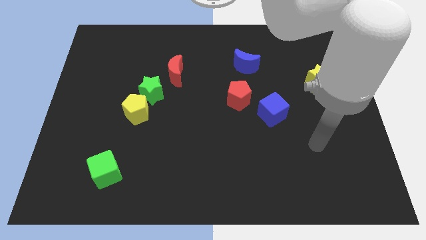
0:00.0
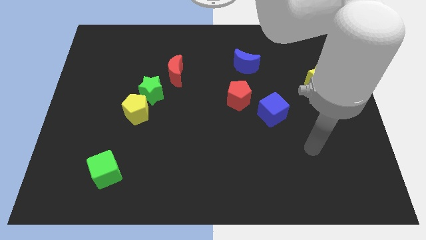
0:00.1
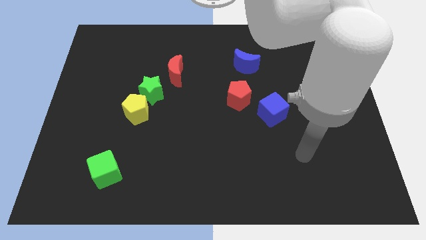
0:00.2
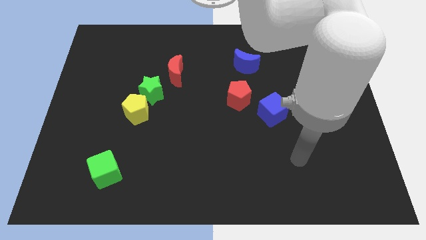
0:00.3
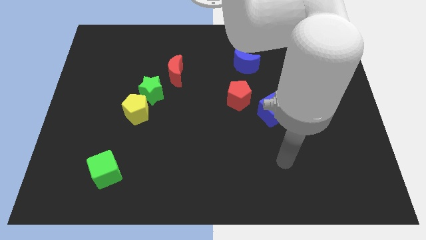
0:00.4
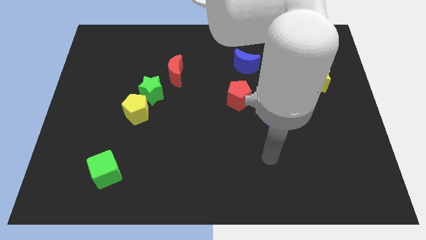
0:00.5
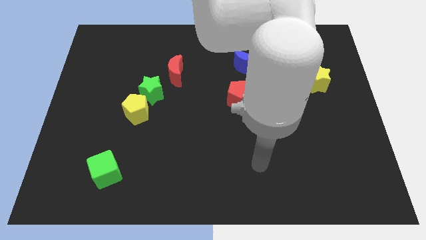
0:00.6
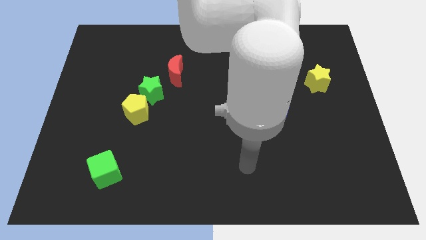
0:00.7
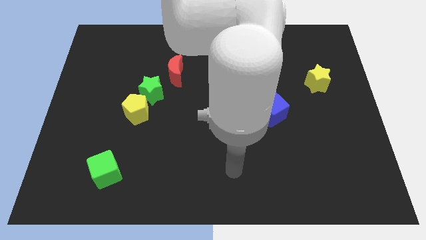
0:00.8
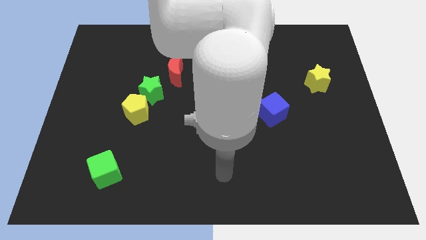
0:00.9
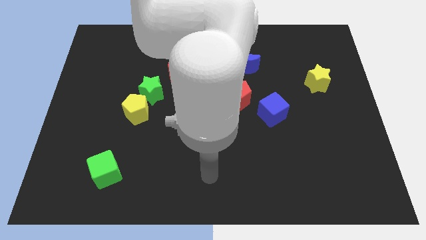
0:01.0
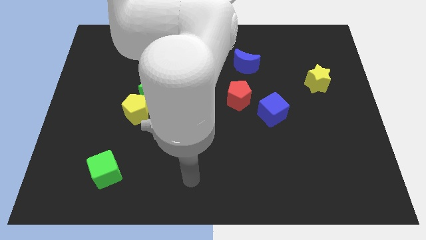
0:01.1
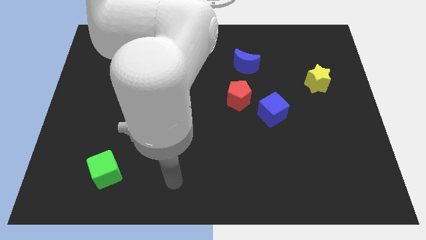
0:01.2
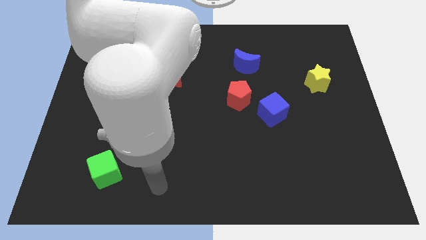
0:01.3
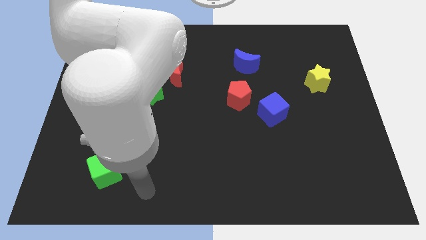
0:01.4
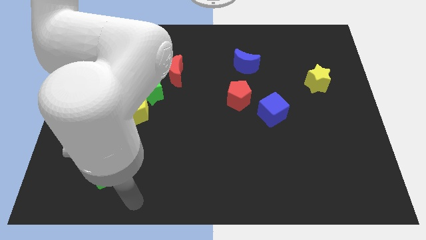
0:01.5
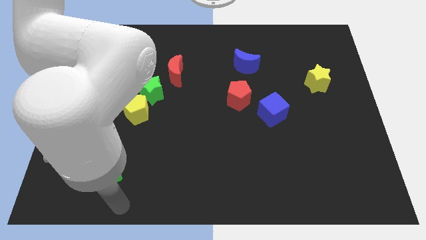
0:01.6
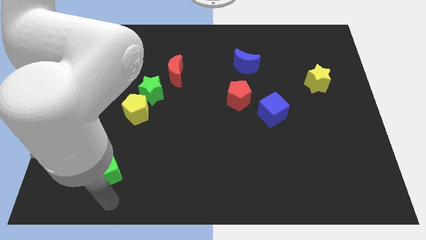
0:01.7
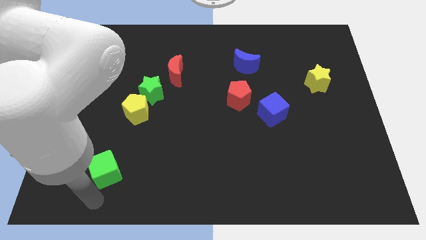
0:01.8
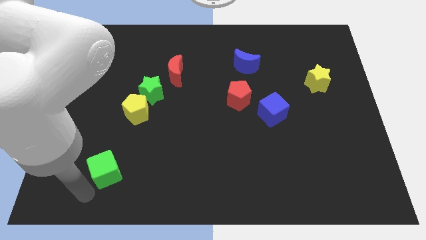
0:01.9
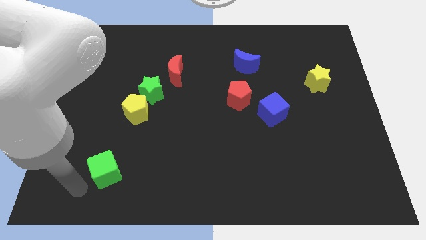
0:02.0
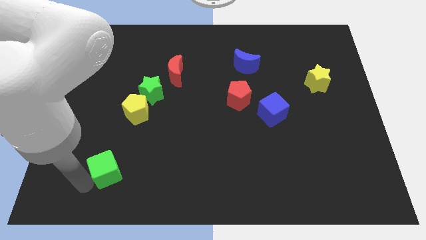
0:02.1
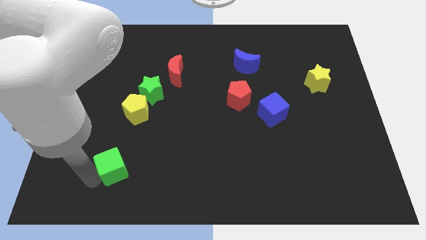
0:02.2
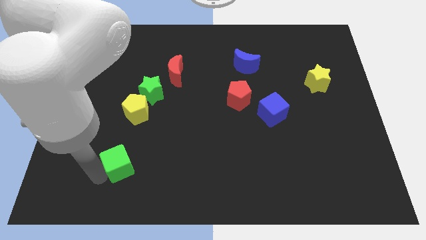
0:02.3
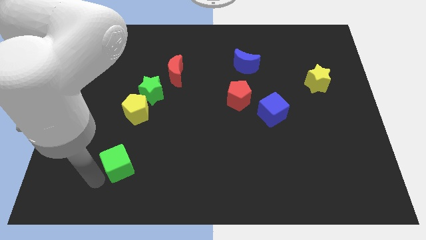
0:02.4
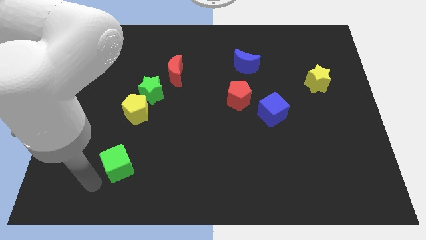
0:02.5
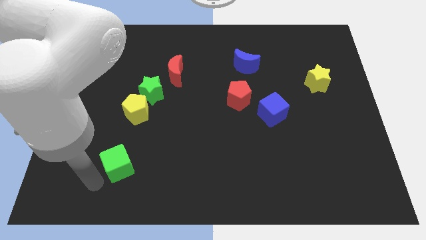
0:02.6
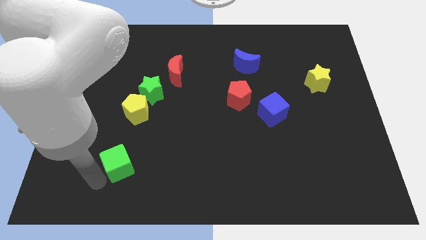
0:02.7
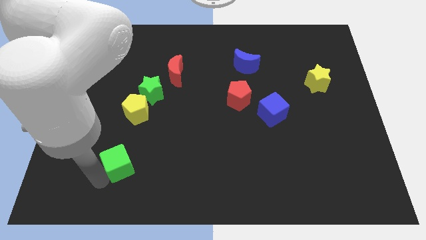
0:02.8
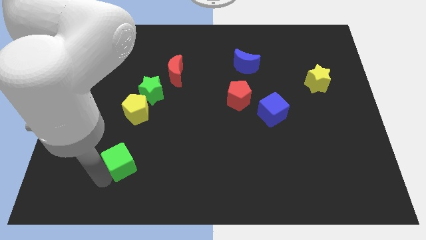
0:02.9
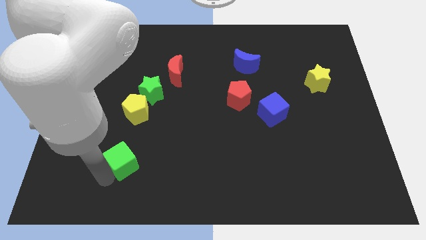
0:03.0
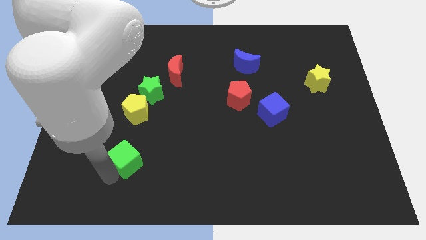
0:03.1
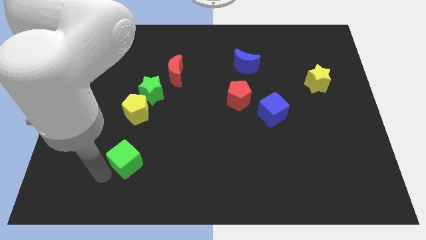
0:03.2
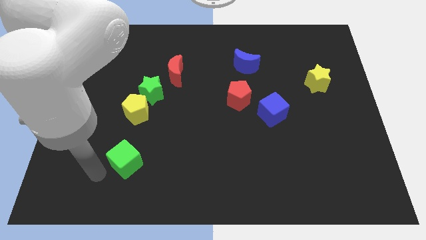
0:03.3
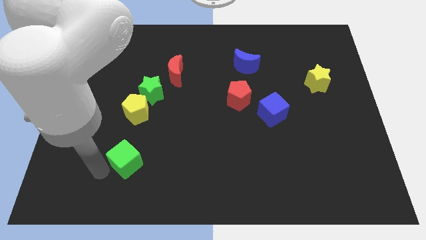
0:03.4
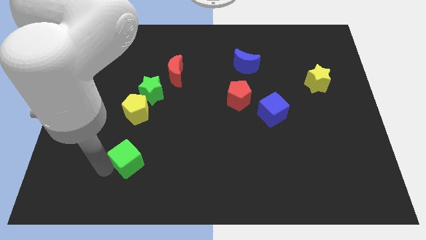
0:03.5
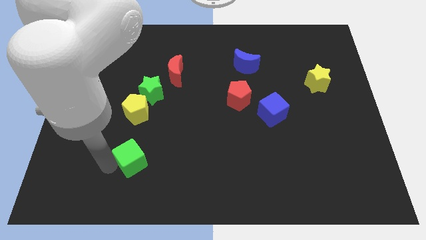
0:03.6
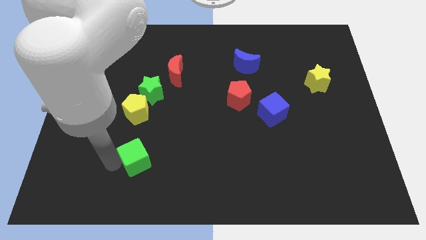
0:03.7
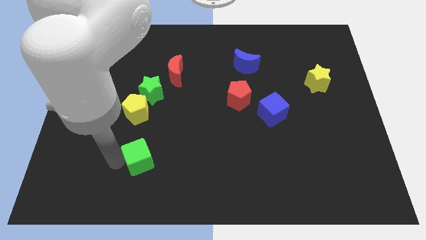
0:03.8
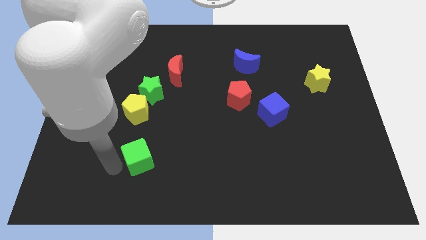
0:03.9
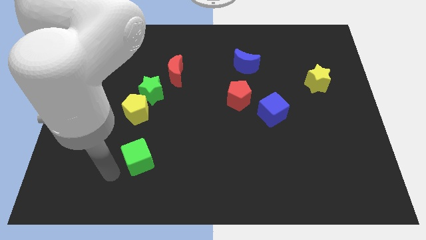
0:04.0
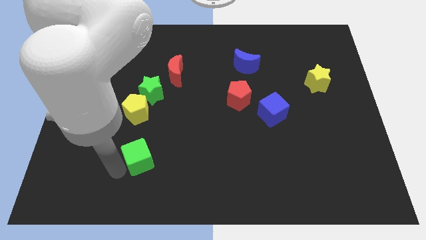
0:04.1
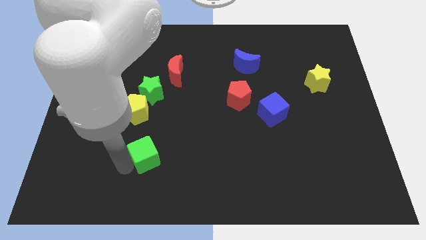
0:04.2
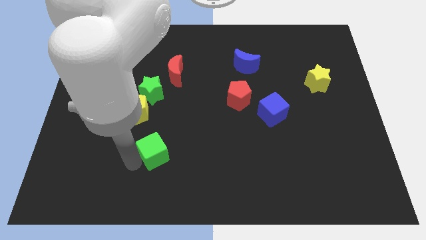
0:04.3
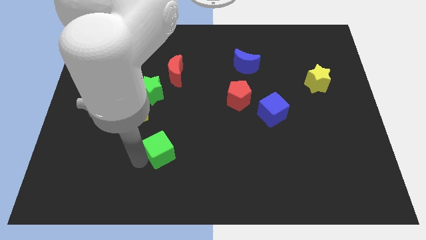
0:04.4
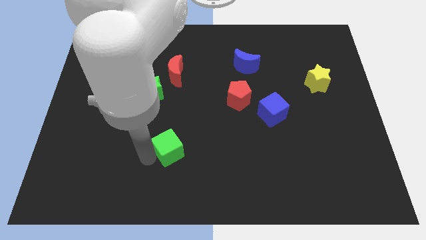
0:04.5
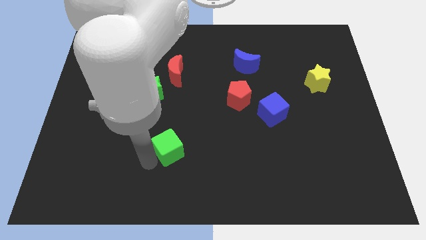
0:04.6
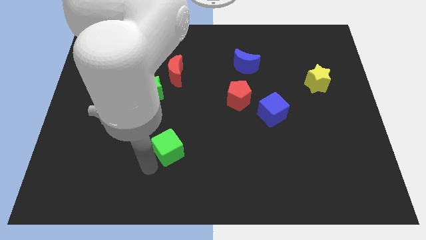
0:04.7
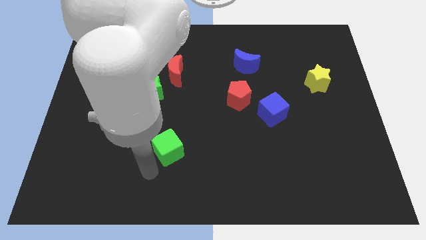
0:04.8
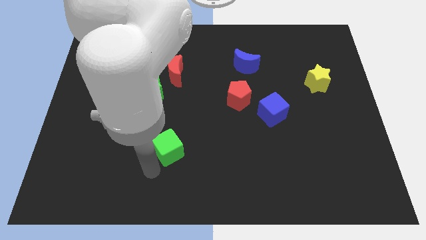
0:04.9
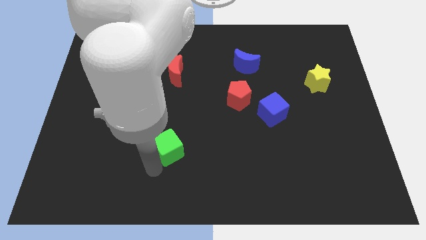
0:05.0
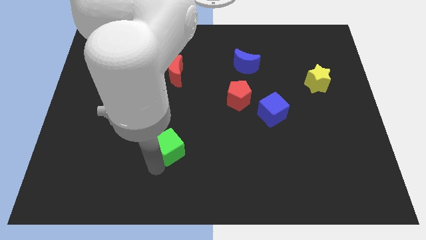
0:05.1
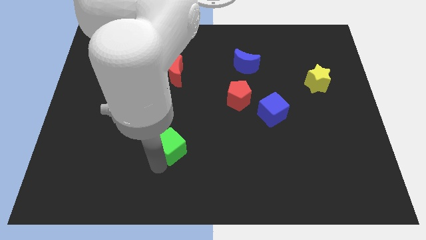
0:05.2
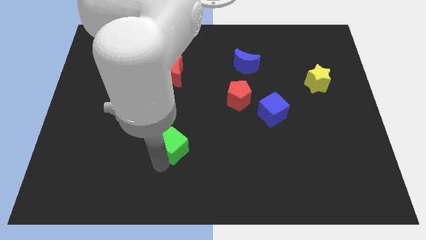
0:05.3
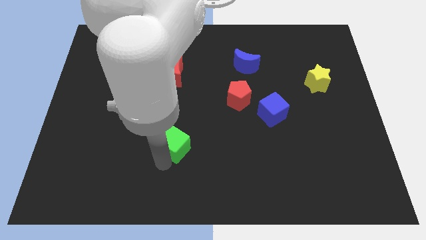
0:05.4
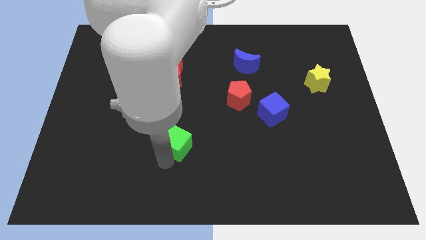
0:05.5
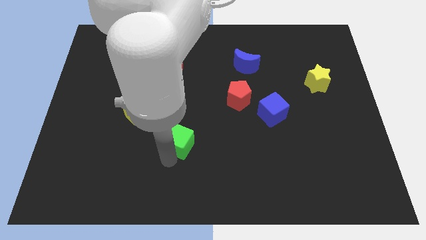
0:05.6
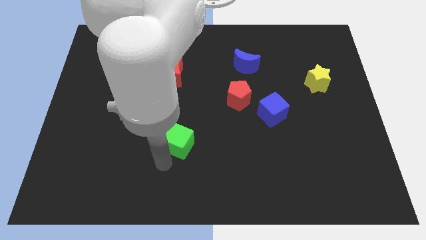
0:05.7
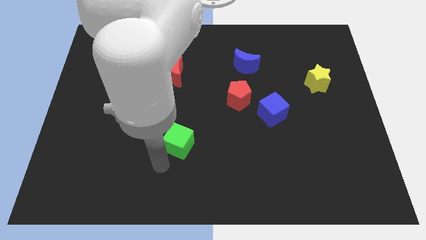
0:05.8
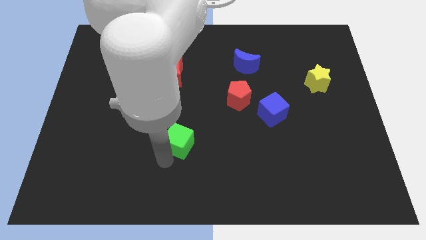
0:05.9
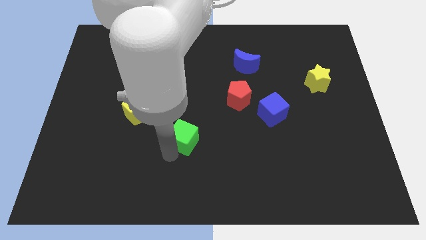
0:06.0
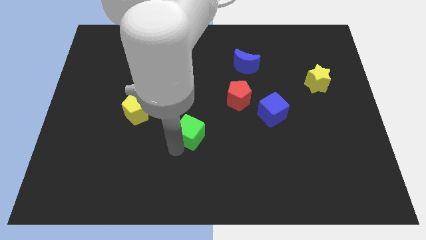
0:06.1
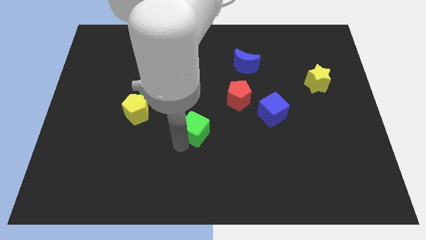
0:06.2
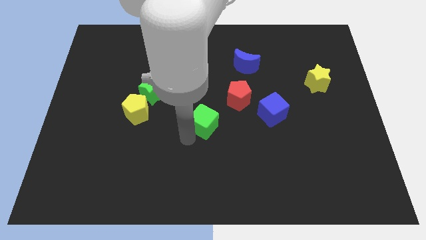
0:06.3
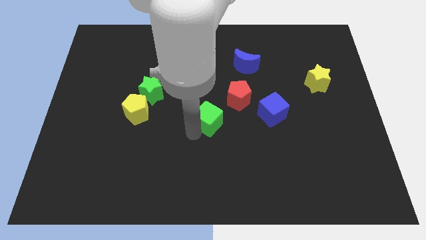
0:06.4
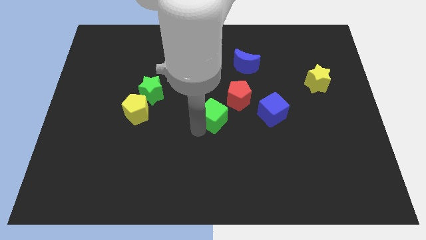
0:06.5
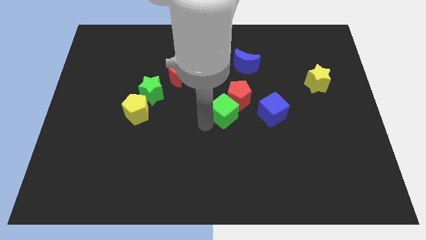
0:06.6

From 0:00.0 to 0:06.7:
push the green cube to the red pentagon
